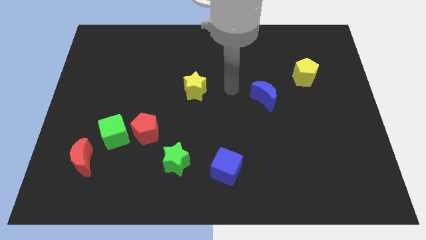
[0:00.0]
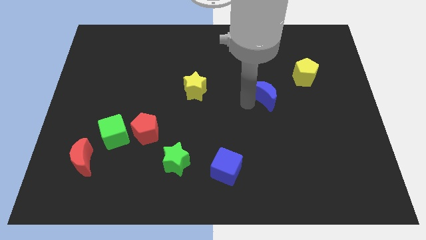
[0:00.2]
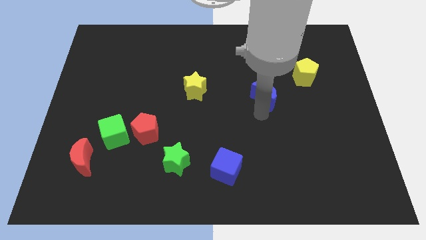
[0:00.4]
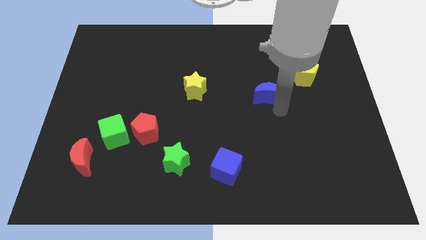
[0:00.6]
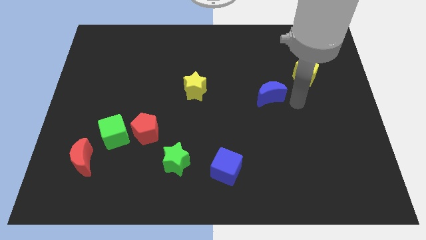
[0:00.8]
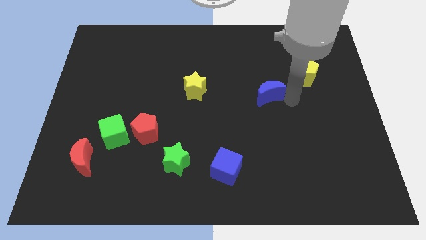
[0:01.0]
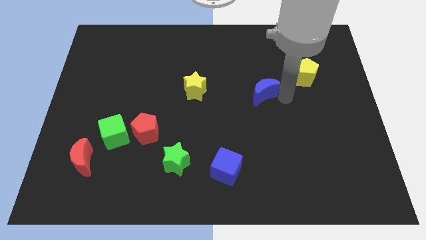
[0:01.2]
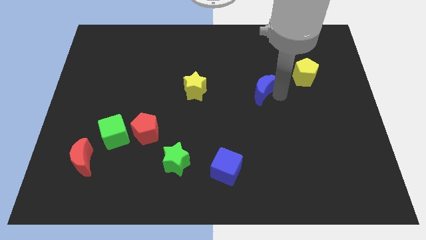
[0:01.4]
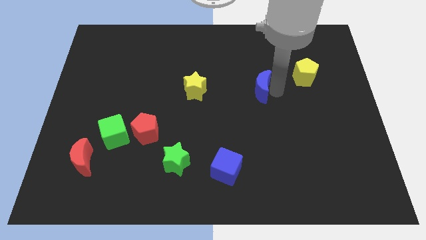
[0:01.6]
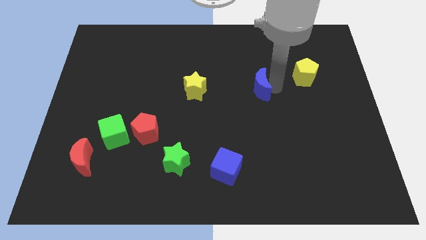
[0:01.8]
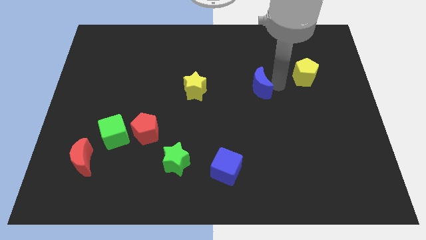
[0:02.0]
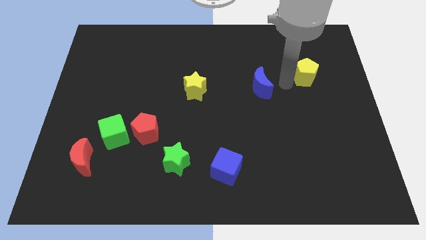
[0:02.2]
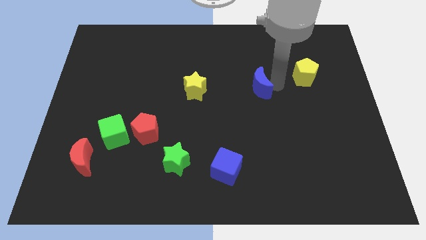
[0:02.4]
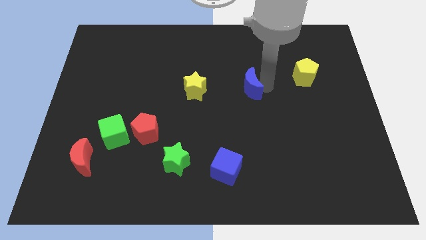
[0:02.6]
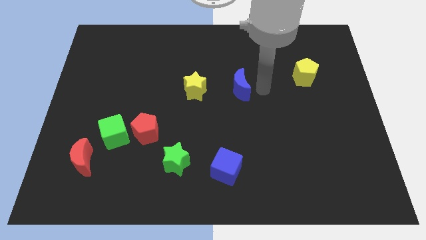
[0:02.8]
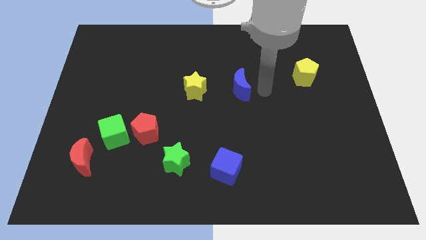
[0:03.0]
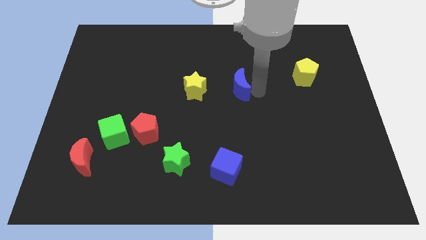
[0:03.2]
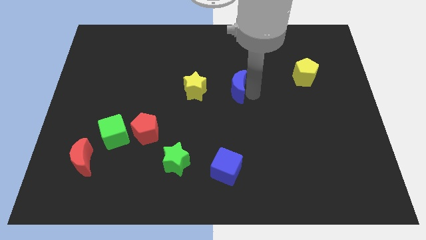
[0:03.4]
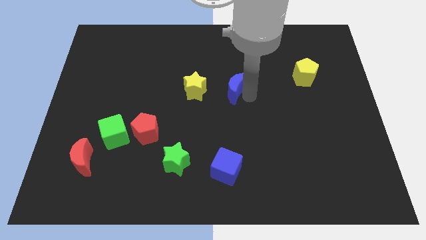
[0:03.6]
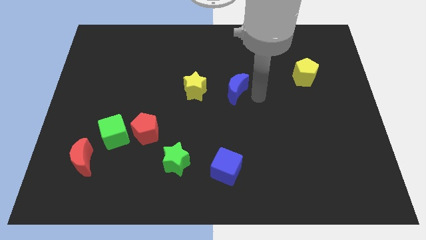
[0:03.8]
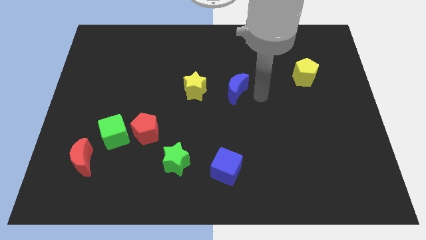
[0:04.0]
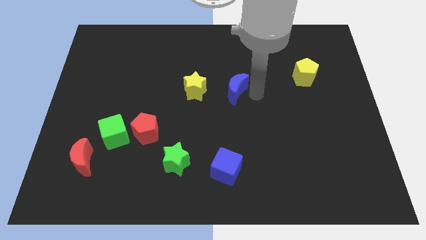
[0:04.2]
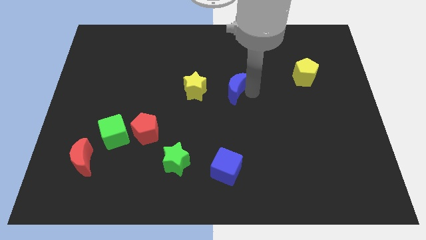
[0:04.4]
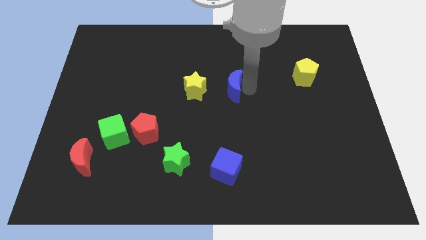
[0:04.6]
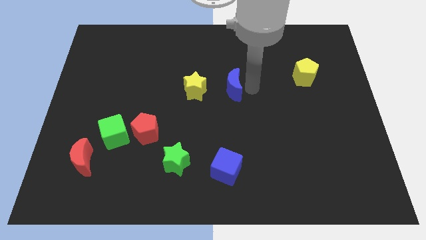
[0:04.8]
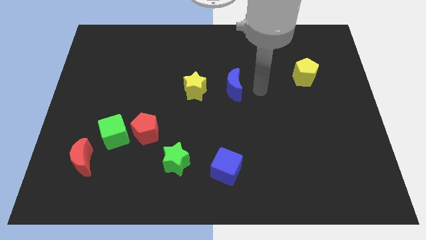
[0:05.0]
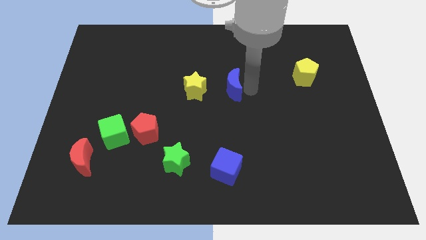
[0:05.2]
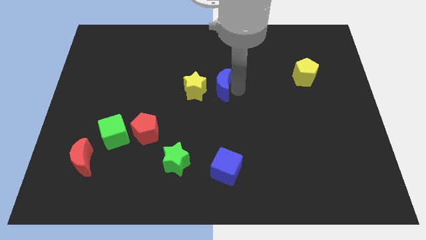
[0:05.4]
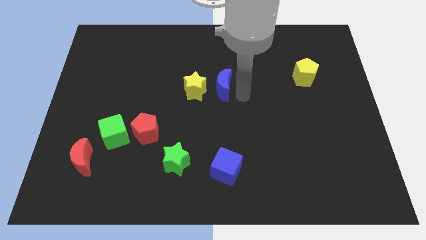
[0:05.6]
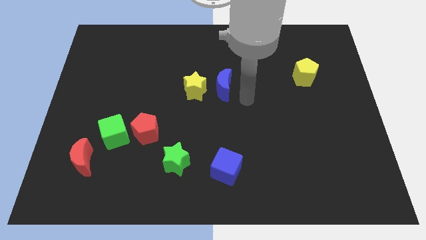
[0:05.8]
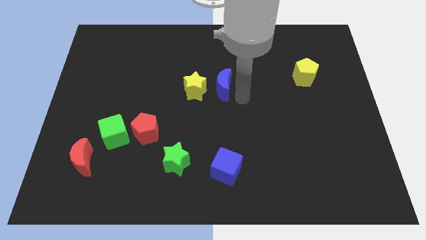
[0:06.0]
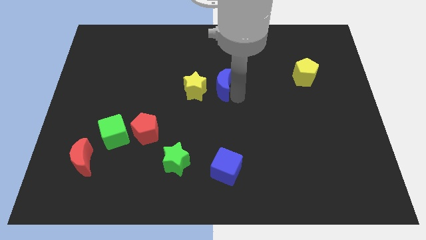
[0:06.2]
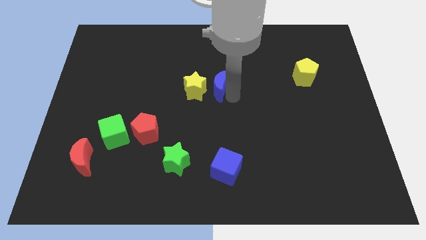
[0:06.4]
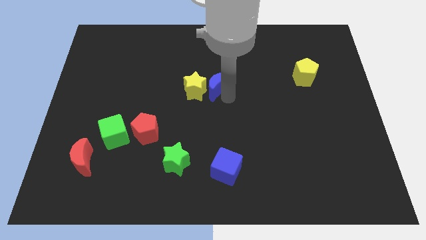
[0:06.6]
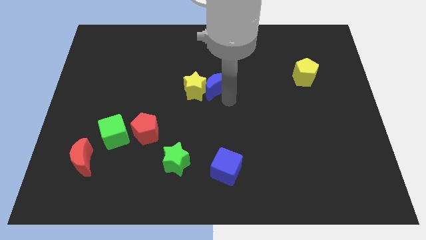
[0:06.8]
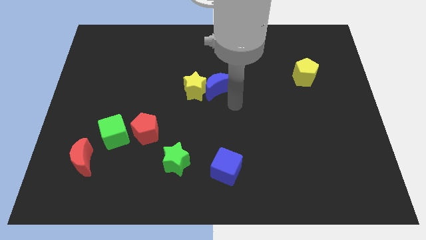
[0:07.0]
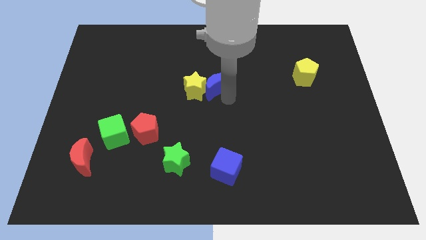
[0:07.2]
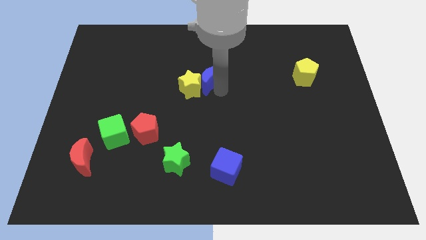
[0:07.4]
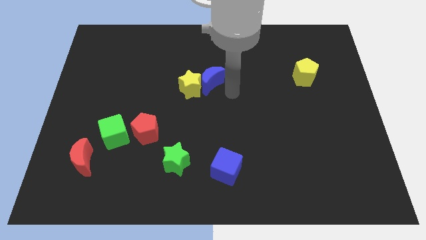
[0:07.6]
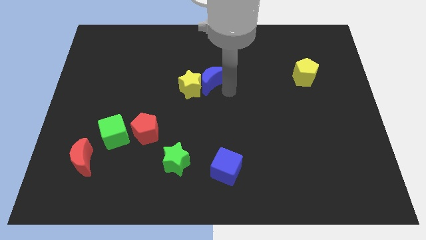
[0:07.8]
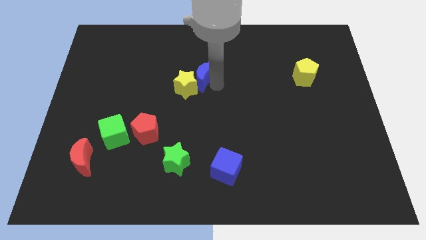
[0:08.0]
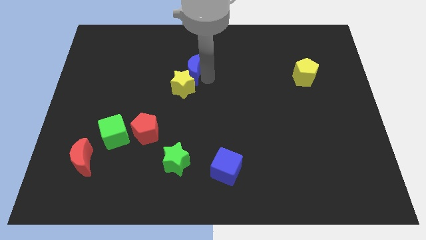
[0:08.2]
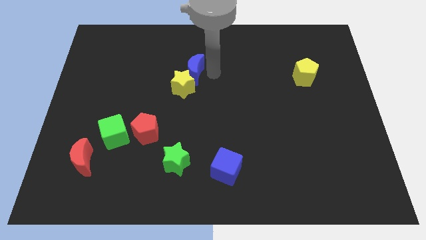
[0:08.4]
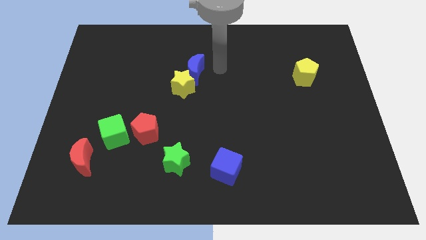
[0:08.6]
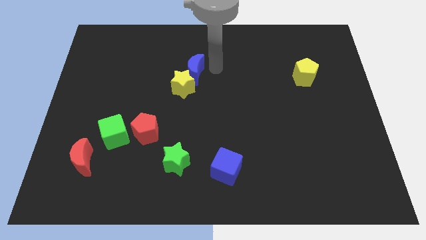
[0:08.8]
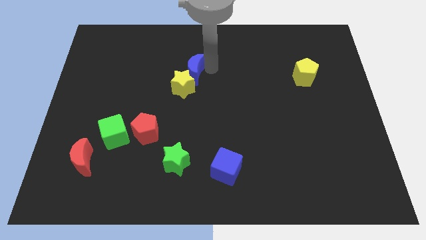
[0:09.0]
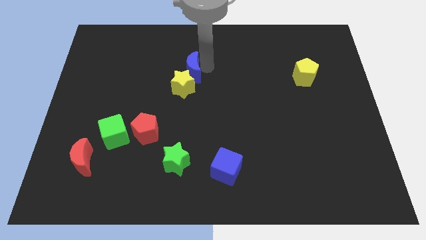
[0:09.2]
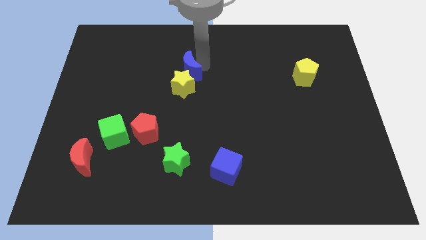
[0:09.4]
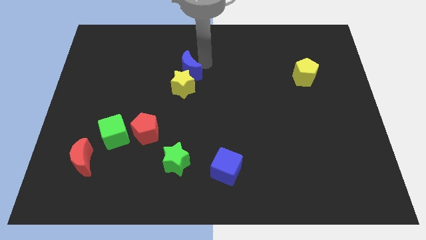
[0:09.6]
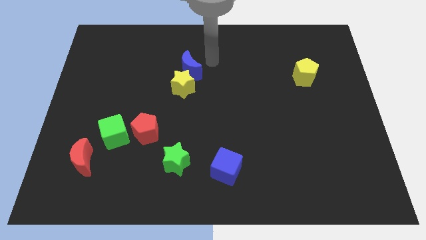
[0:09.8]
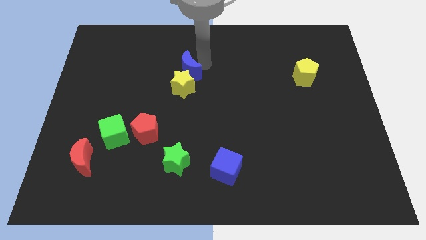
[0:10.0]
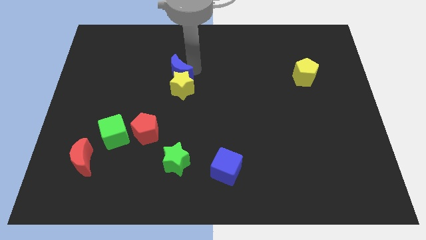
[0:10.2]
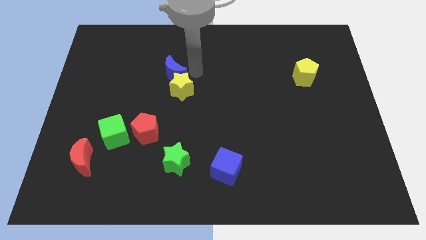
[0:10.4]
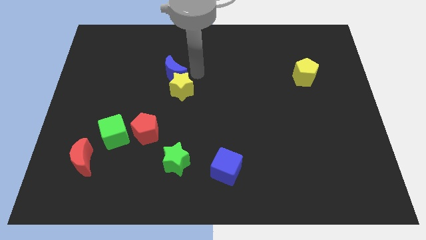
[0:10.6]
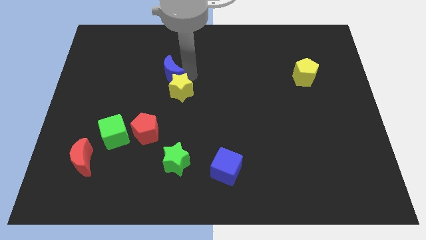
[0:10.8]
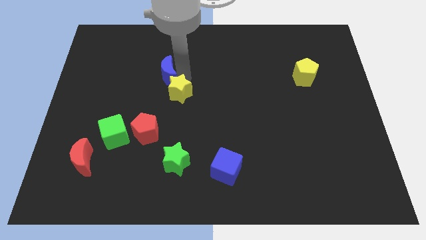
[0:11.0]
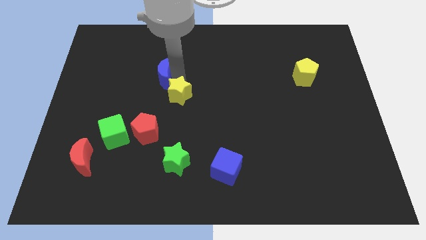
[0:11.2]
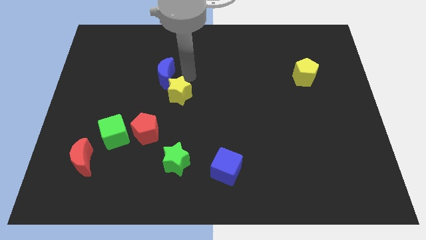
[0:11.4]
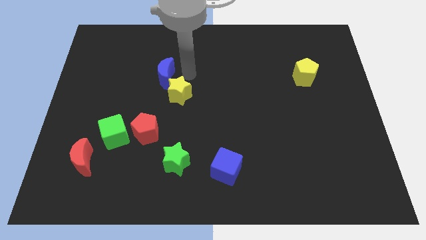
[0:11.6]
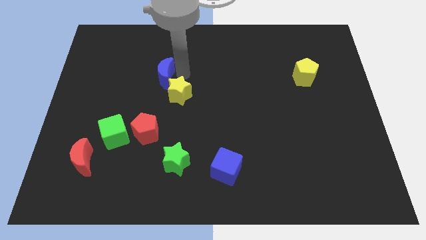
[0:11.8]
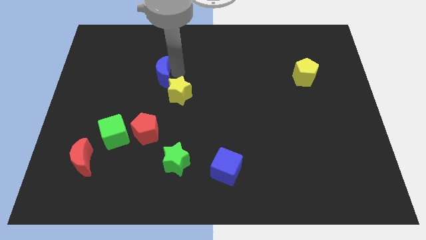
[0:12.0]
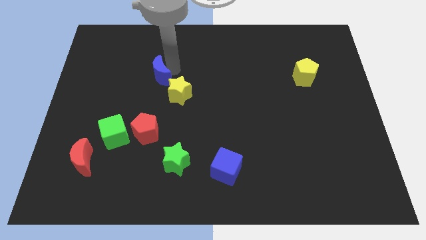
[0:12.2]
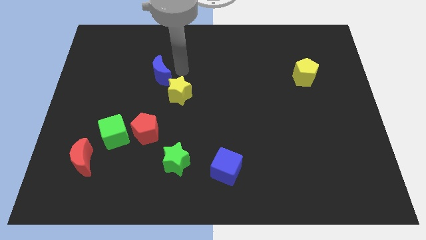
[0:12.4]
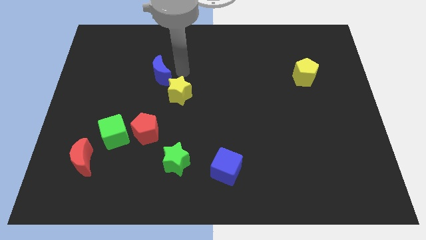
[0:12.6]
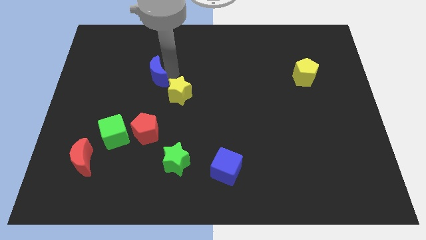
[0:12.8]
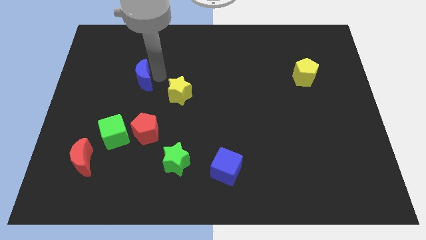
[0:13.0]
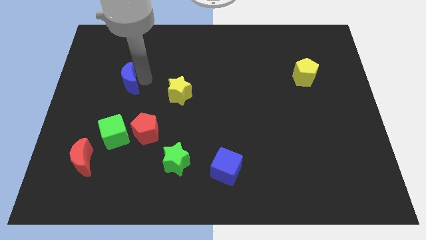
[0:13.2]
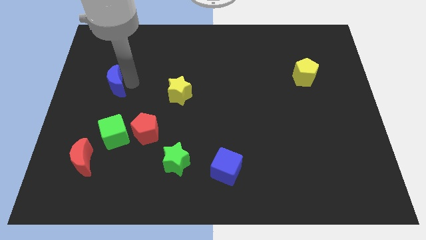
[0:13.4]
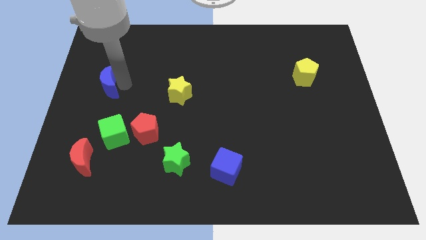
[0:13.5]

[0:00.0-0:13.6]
slide the blue moon to the left side
